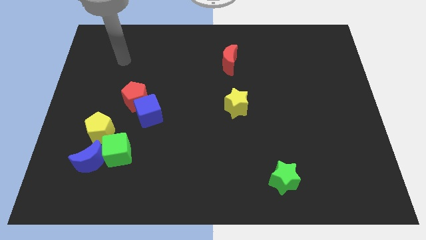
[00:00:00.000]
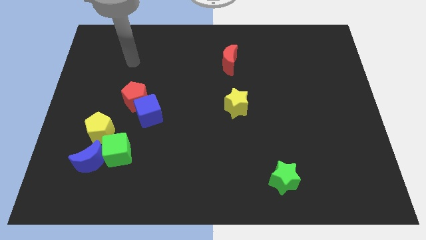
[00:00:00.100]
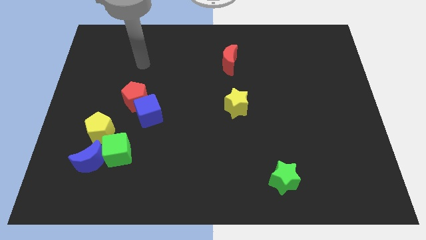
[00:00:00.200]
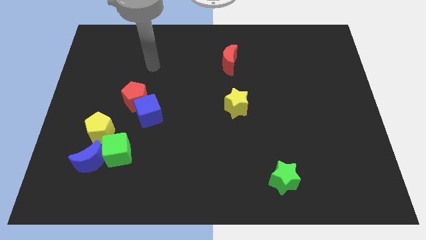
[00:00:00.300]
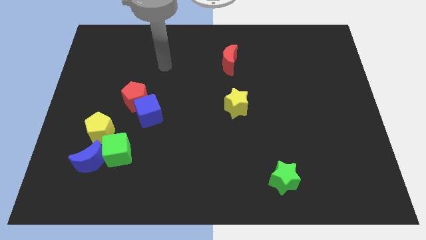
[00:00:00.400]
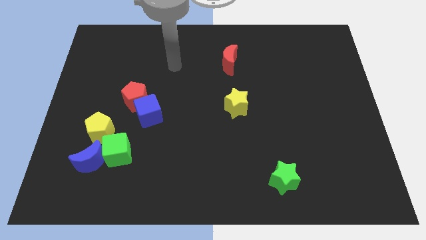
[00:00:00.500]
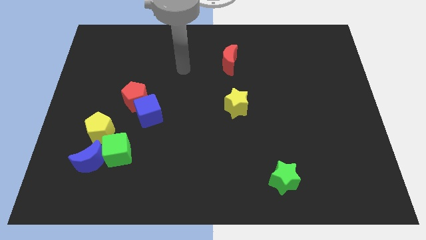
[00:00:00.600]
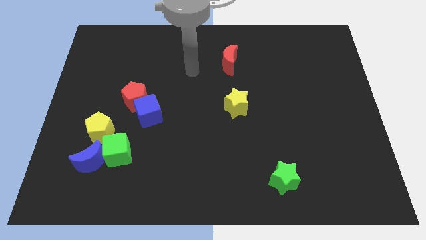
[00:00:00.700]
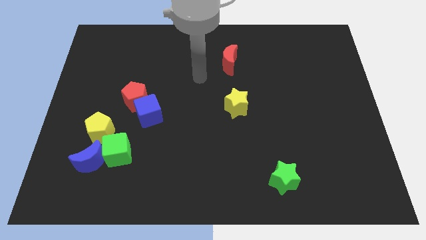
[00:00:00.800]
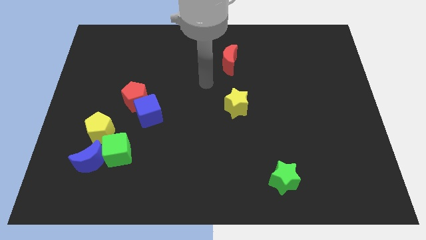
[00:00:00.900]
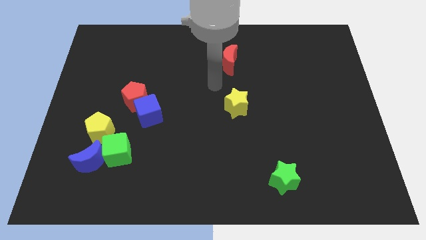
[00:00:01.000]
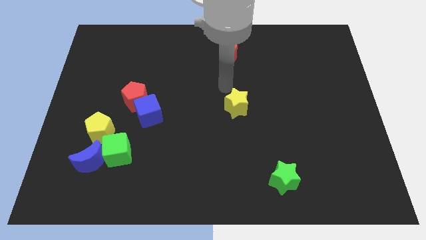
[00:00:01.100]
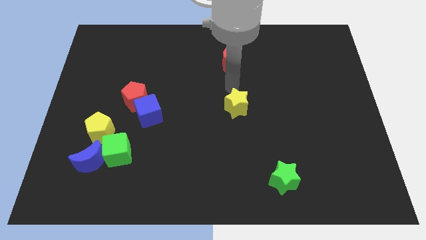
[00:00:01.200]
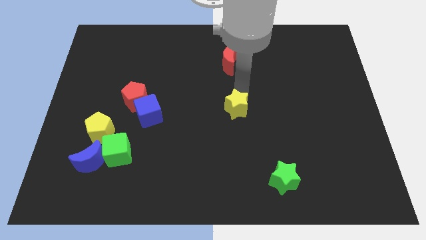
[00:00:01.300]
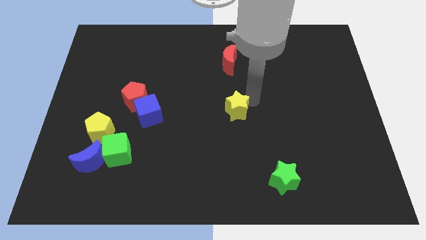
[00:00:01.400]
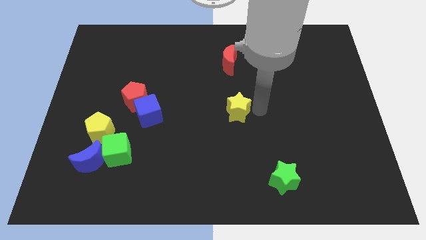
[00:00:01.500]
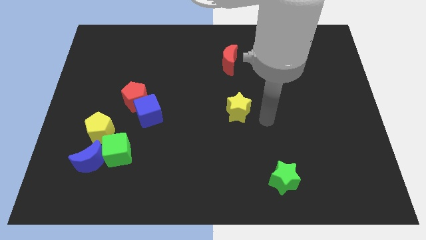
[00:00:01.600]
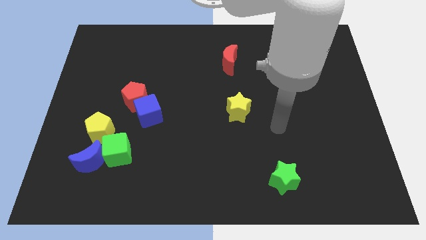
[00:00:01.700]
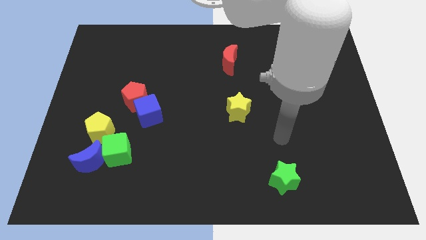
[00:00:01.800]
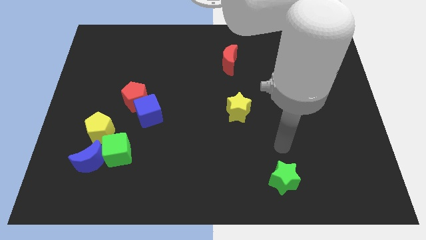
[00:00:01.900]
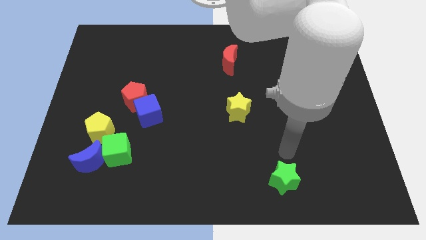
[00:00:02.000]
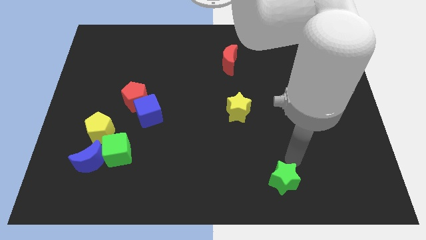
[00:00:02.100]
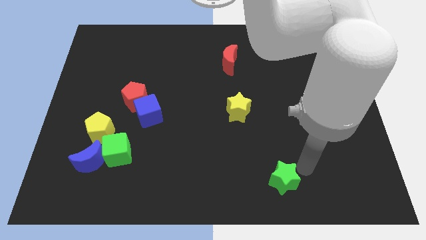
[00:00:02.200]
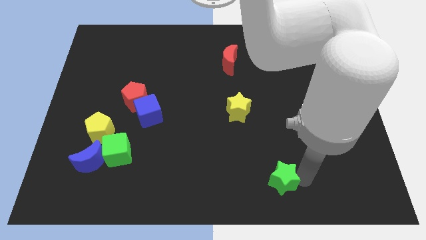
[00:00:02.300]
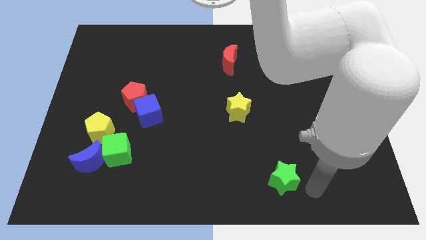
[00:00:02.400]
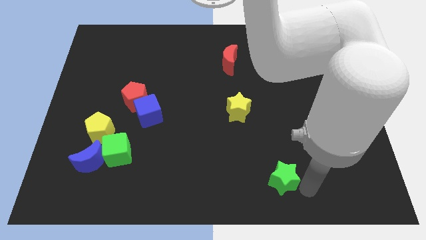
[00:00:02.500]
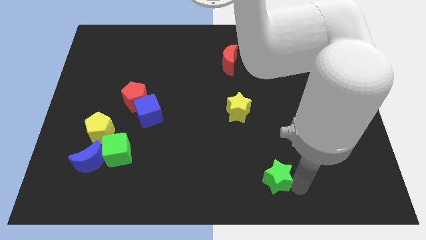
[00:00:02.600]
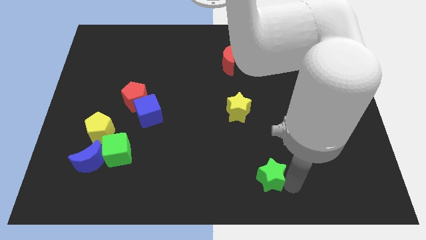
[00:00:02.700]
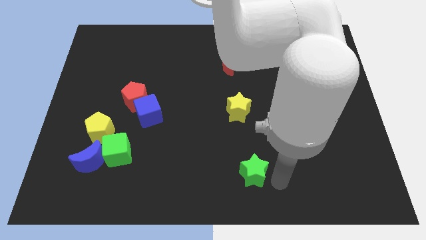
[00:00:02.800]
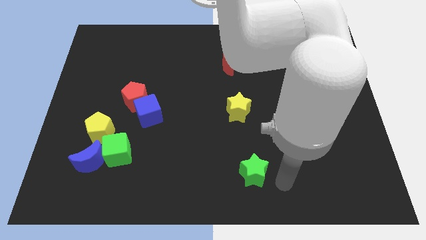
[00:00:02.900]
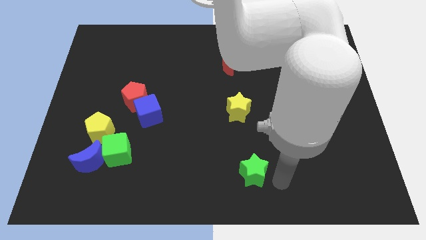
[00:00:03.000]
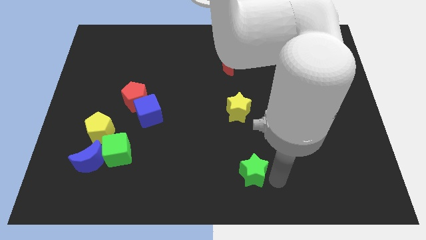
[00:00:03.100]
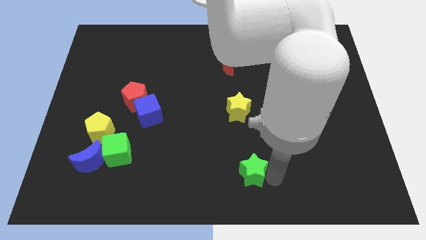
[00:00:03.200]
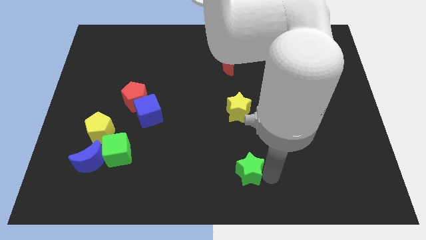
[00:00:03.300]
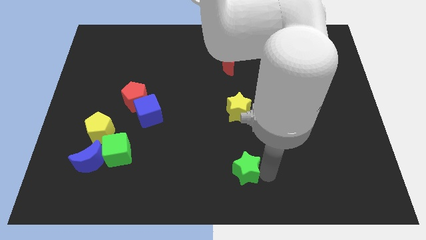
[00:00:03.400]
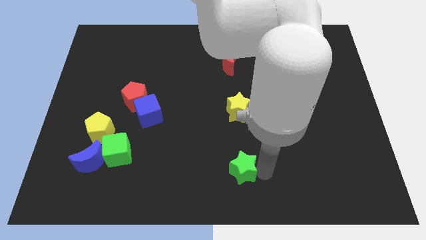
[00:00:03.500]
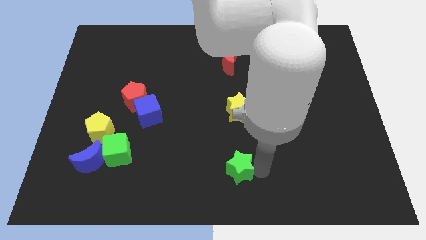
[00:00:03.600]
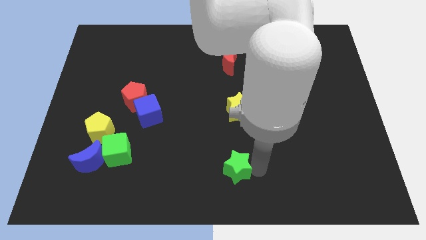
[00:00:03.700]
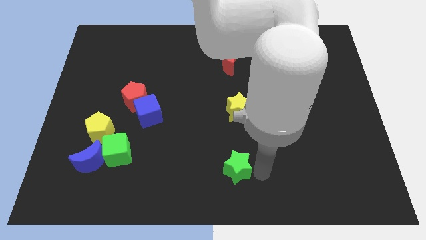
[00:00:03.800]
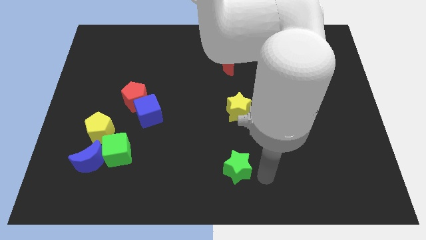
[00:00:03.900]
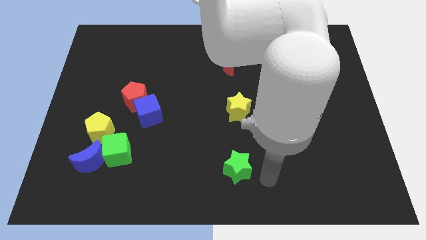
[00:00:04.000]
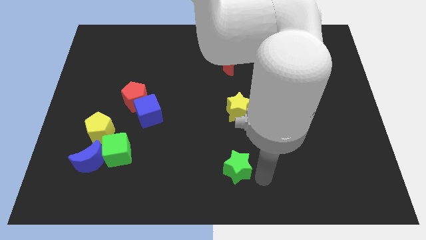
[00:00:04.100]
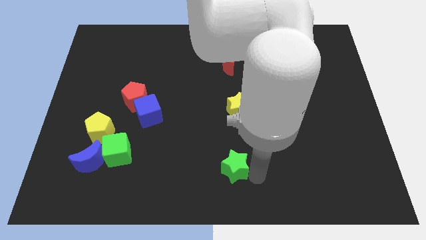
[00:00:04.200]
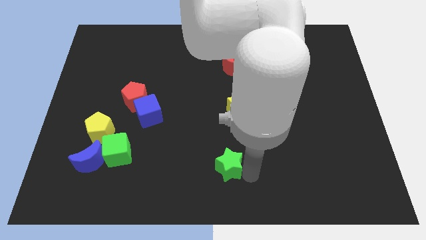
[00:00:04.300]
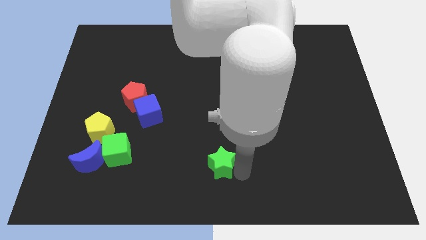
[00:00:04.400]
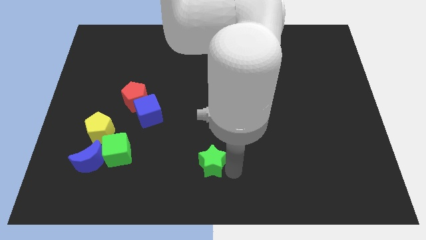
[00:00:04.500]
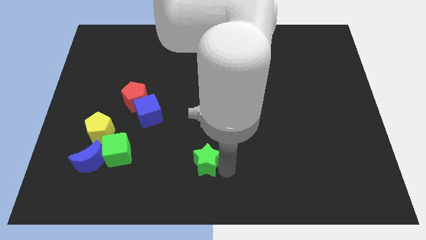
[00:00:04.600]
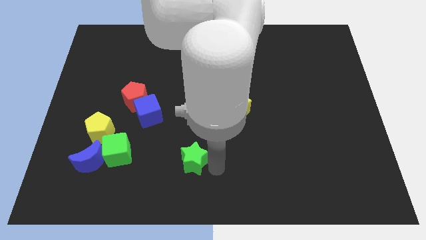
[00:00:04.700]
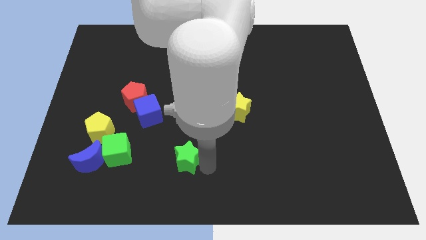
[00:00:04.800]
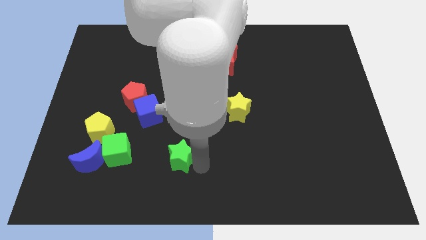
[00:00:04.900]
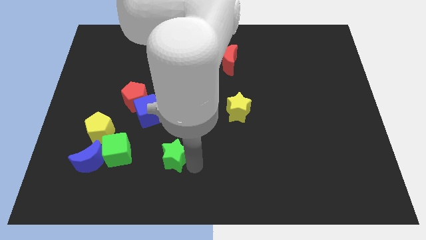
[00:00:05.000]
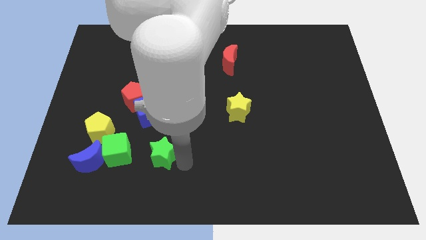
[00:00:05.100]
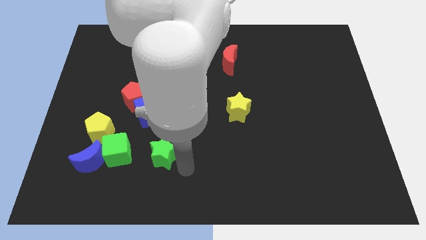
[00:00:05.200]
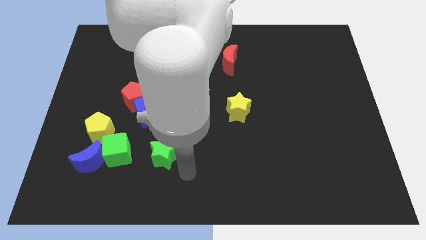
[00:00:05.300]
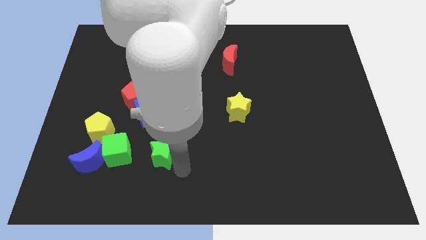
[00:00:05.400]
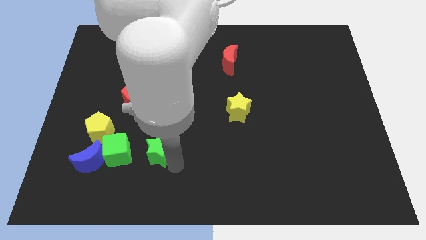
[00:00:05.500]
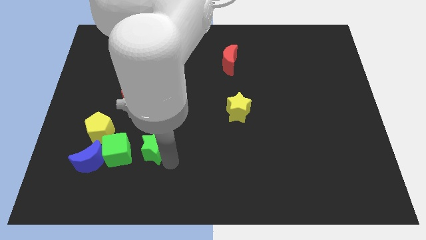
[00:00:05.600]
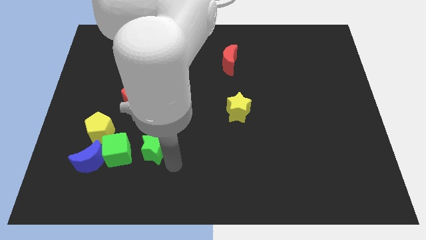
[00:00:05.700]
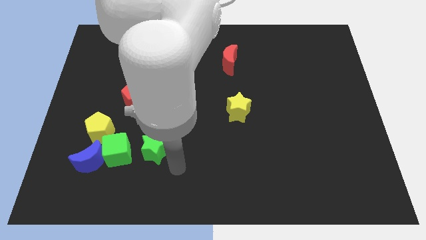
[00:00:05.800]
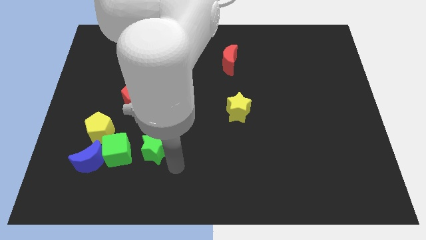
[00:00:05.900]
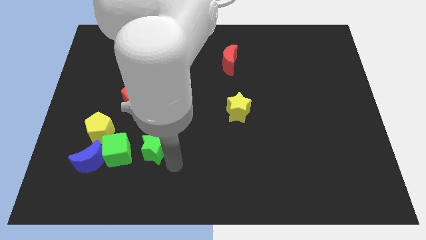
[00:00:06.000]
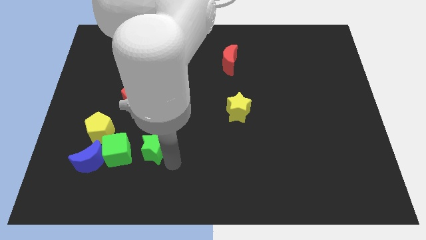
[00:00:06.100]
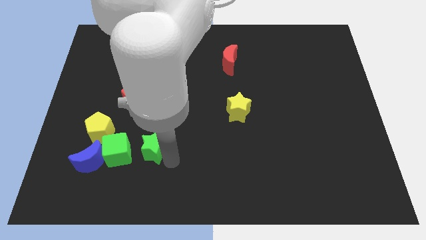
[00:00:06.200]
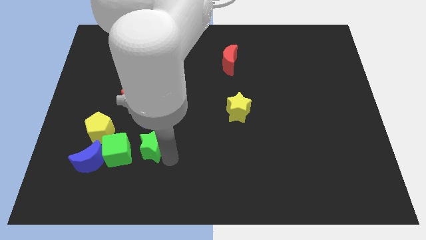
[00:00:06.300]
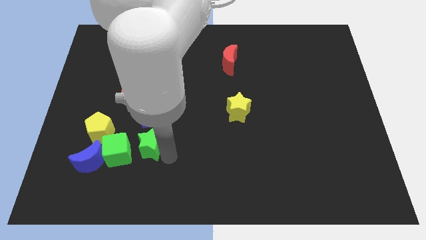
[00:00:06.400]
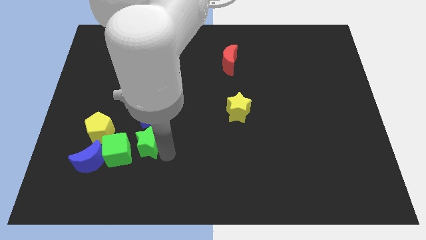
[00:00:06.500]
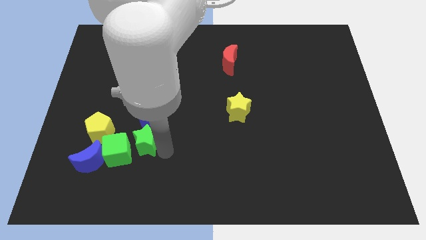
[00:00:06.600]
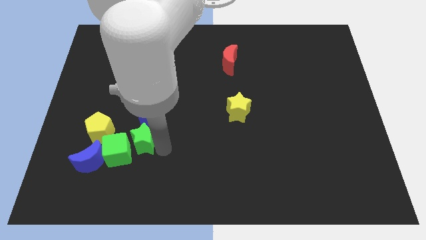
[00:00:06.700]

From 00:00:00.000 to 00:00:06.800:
push the green star to the top right of the blue moon

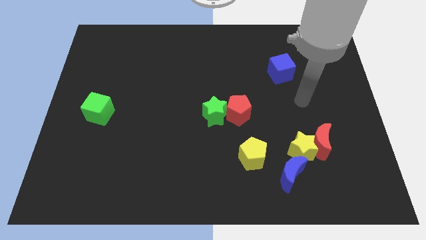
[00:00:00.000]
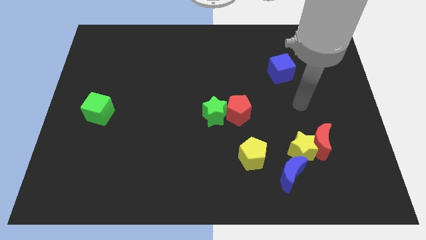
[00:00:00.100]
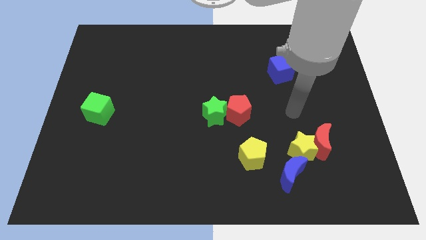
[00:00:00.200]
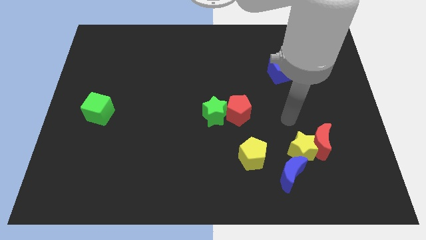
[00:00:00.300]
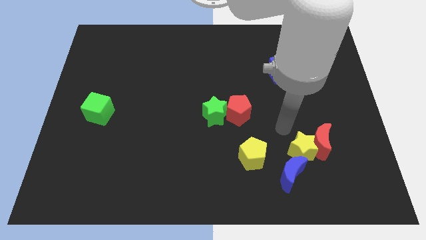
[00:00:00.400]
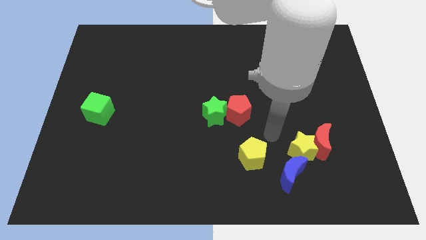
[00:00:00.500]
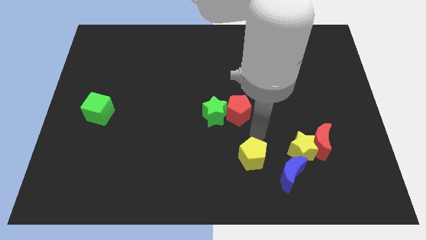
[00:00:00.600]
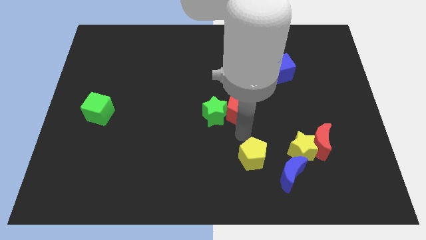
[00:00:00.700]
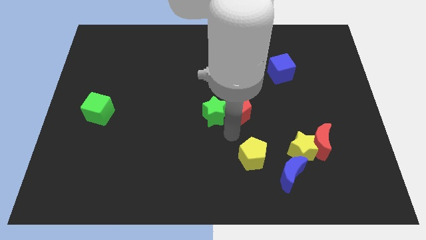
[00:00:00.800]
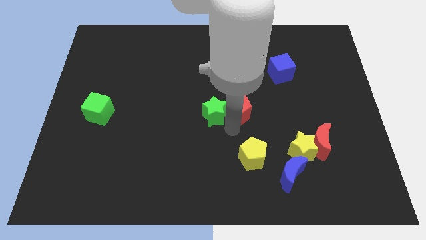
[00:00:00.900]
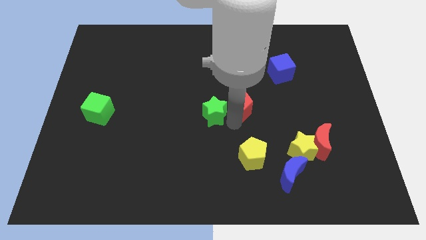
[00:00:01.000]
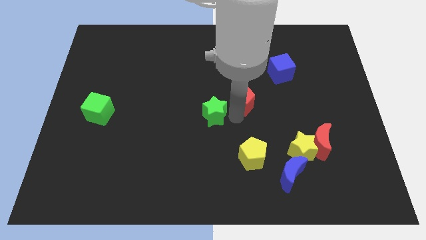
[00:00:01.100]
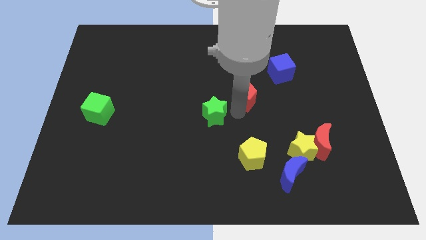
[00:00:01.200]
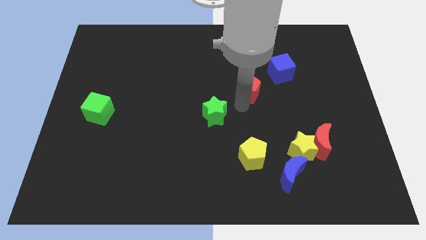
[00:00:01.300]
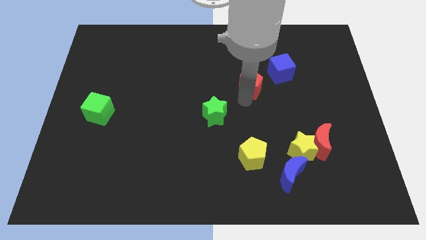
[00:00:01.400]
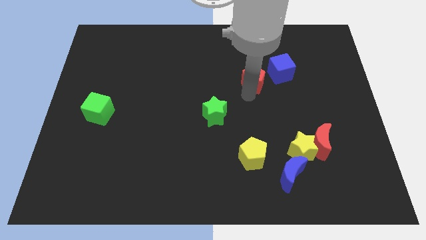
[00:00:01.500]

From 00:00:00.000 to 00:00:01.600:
push the red pentagon just left of the blue cube
